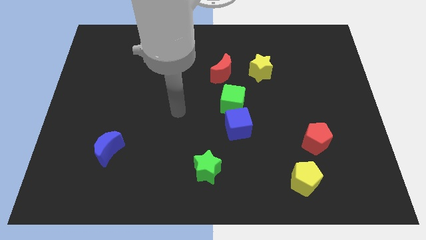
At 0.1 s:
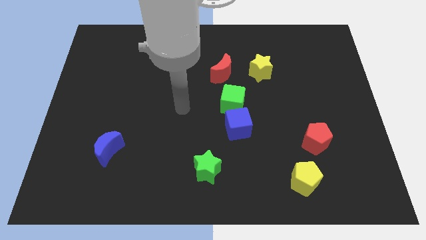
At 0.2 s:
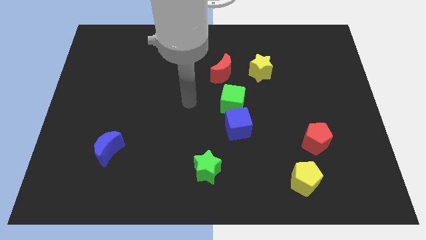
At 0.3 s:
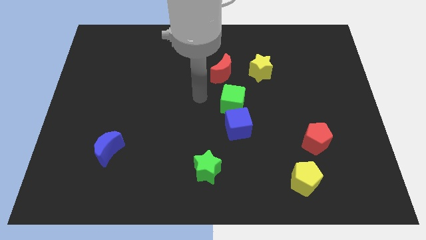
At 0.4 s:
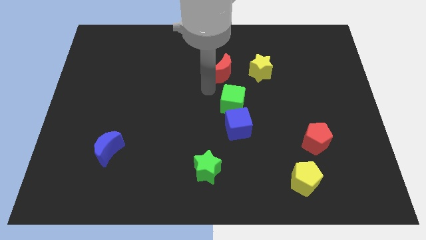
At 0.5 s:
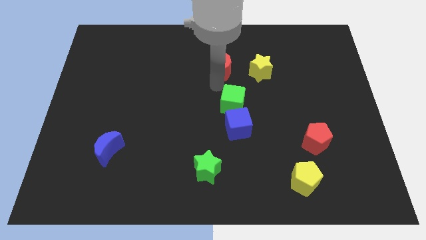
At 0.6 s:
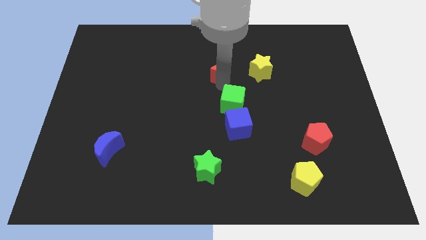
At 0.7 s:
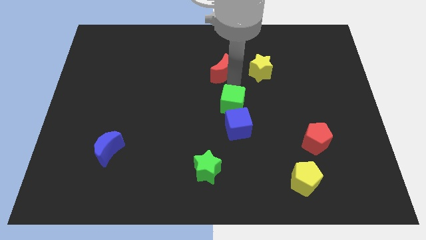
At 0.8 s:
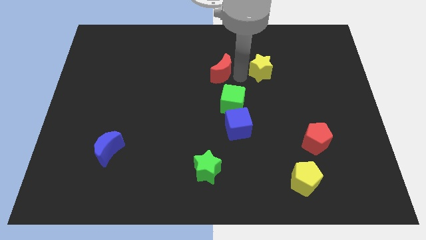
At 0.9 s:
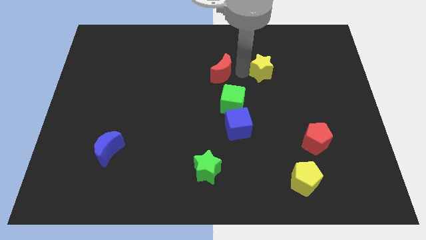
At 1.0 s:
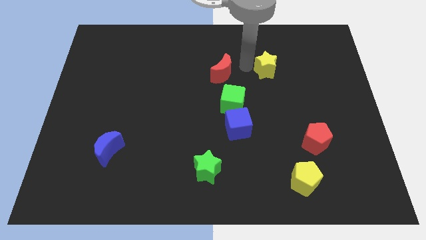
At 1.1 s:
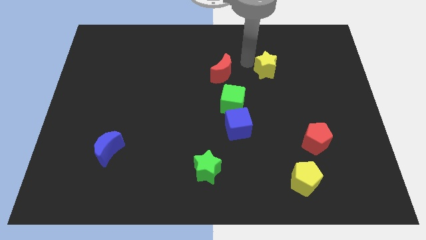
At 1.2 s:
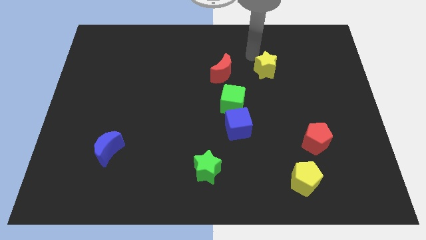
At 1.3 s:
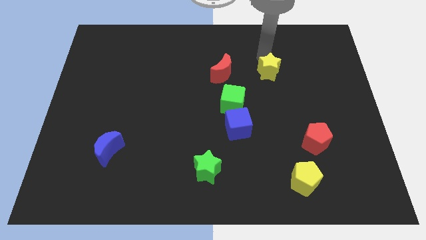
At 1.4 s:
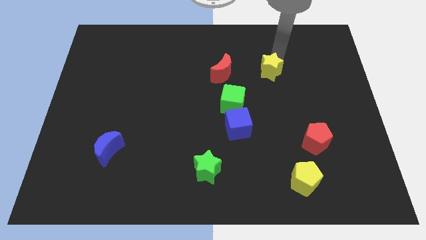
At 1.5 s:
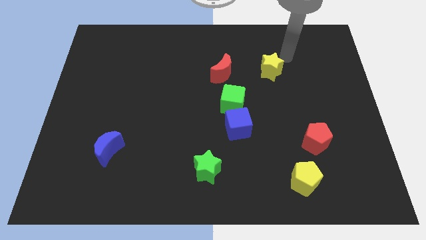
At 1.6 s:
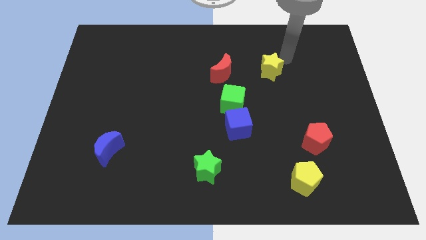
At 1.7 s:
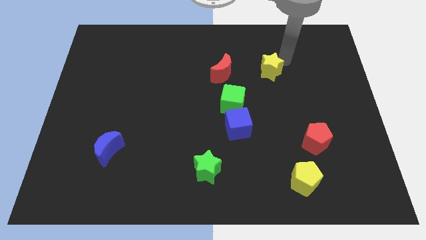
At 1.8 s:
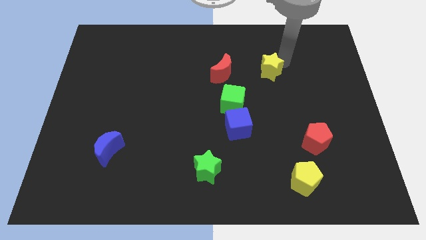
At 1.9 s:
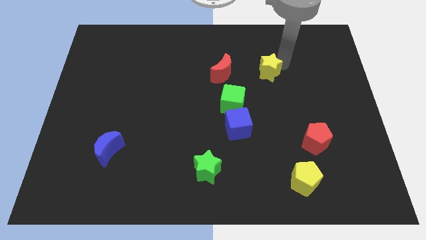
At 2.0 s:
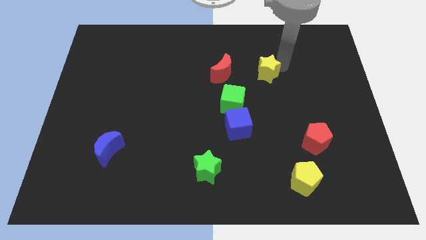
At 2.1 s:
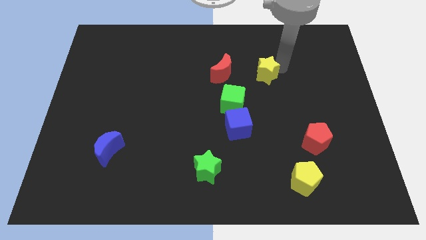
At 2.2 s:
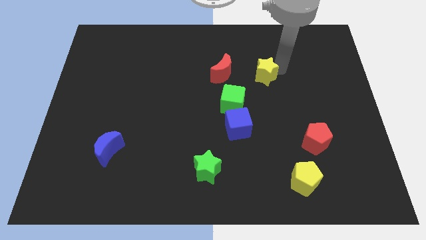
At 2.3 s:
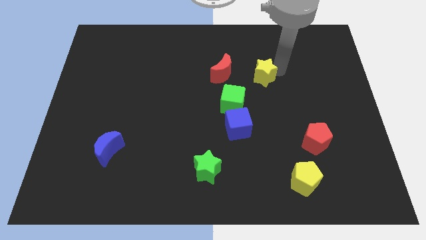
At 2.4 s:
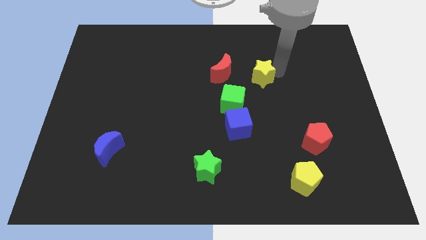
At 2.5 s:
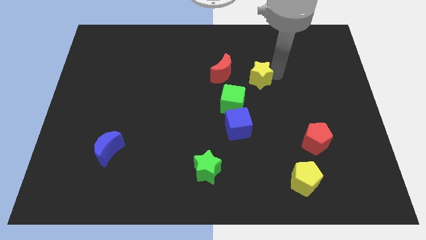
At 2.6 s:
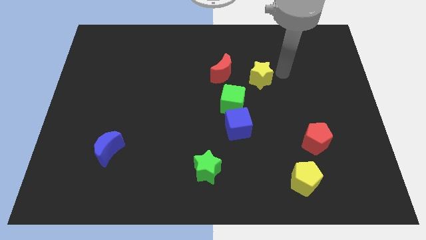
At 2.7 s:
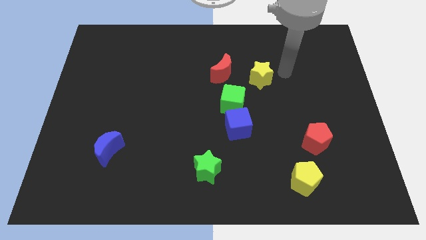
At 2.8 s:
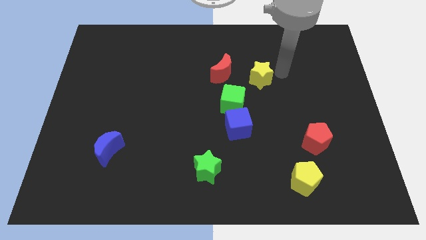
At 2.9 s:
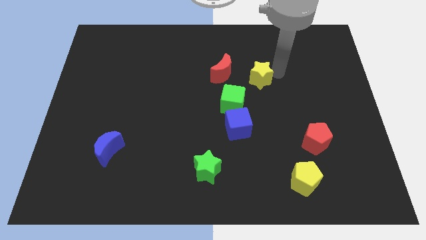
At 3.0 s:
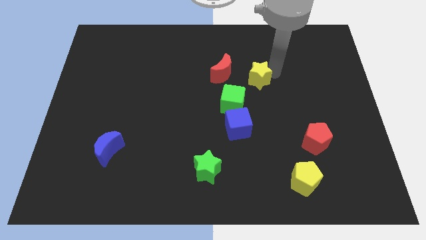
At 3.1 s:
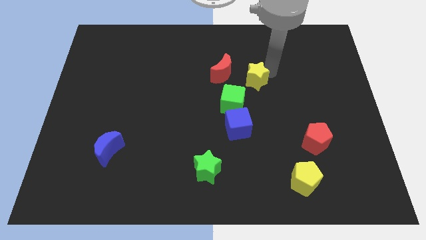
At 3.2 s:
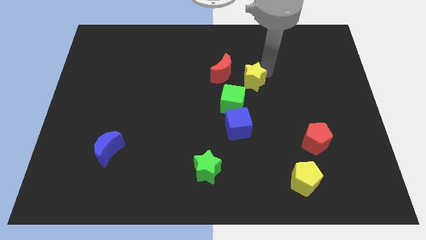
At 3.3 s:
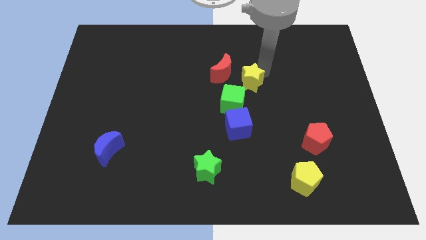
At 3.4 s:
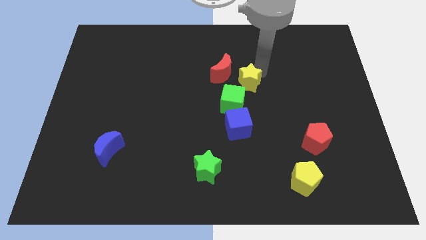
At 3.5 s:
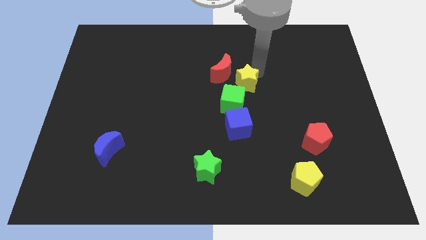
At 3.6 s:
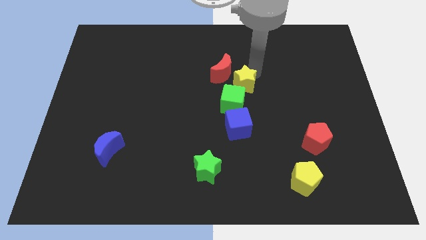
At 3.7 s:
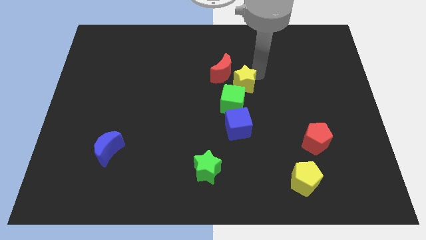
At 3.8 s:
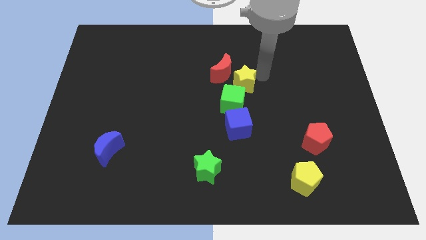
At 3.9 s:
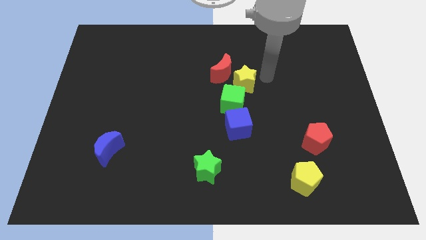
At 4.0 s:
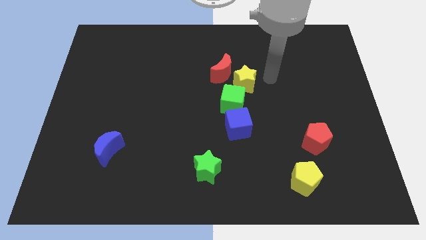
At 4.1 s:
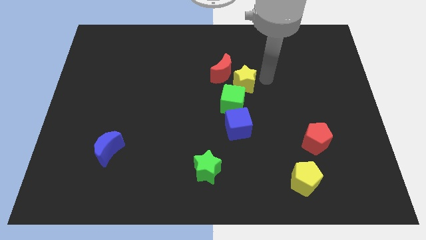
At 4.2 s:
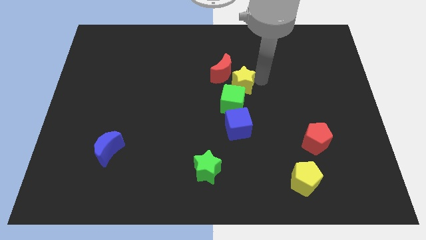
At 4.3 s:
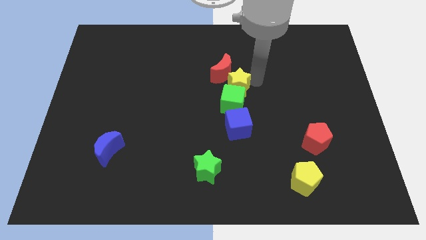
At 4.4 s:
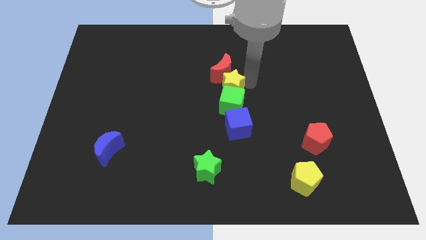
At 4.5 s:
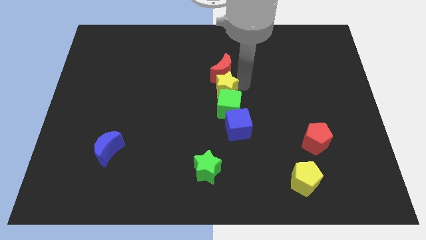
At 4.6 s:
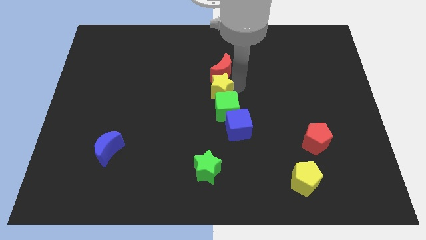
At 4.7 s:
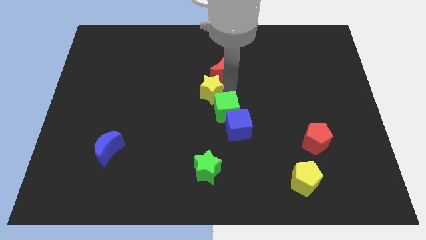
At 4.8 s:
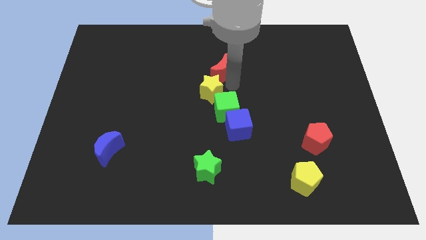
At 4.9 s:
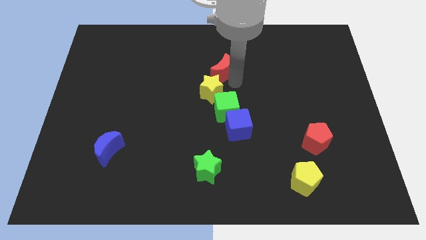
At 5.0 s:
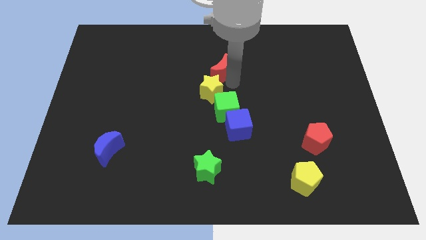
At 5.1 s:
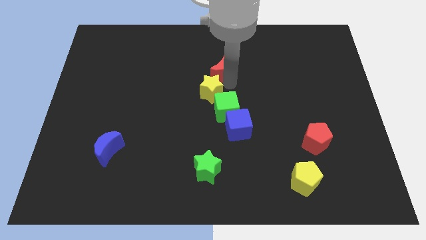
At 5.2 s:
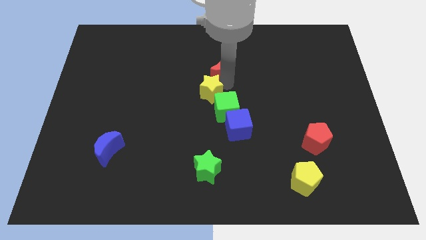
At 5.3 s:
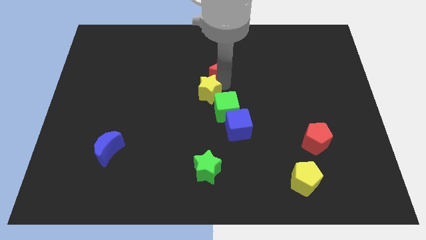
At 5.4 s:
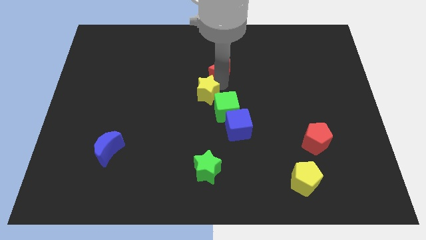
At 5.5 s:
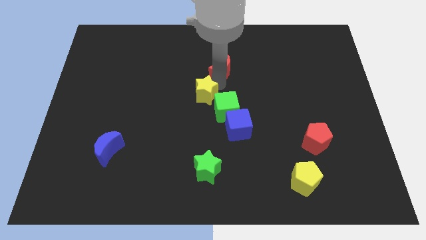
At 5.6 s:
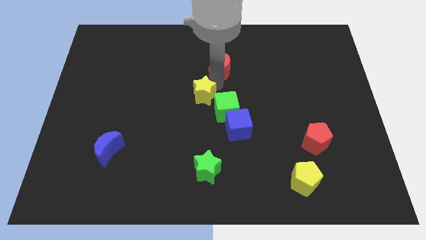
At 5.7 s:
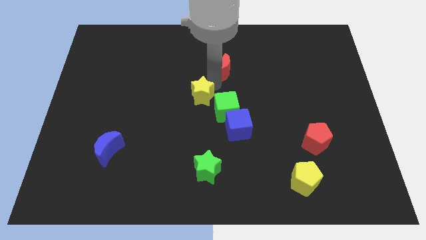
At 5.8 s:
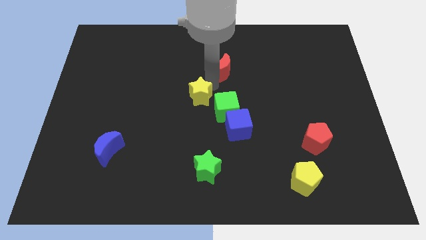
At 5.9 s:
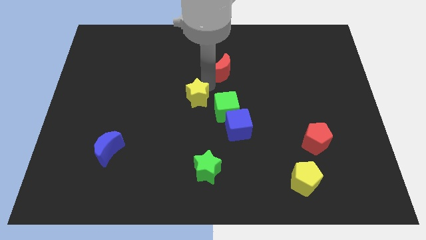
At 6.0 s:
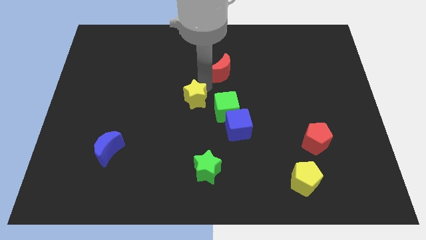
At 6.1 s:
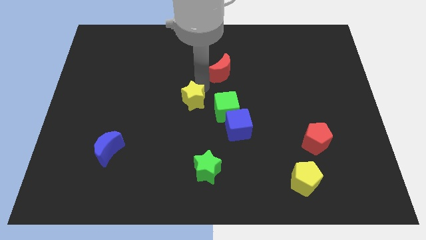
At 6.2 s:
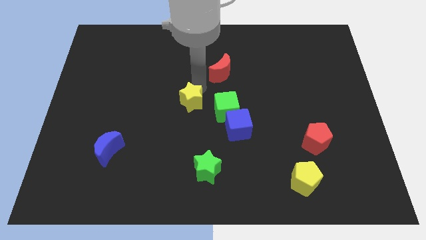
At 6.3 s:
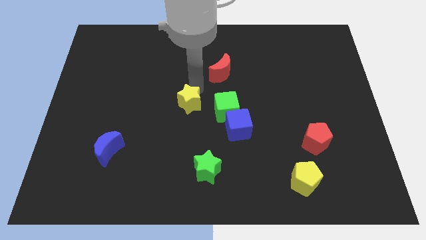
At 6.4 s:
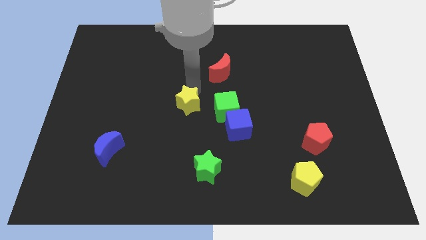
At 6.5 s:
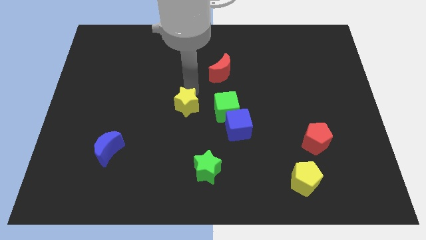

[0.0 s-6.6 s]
push the yellow star down and then to the left

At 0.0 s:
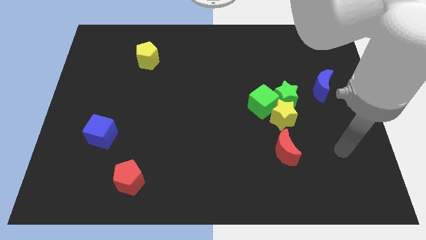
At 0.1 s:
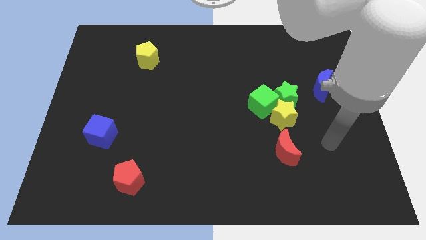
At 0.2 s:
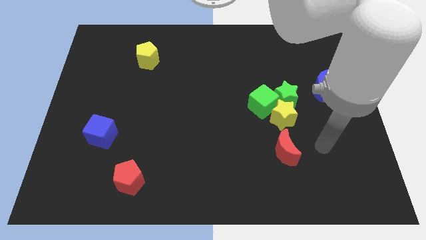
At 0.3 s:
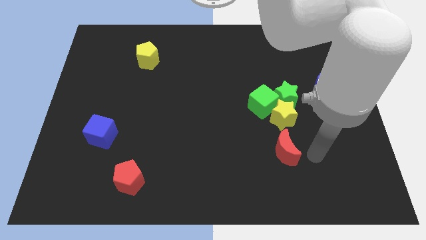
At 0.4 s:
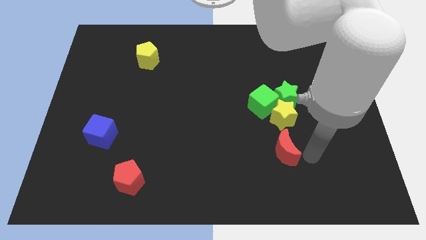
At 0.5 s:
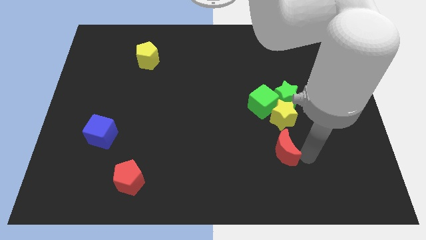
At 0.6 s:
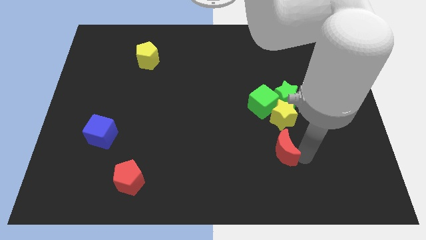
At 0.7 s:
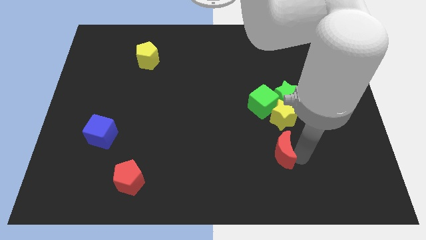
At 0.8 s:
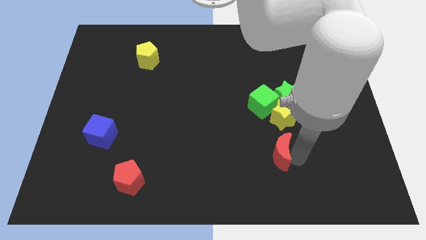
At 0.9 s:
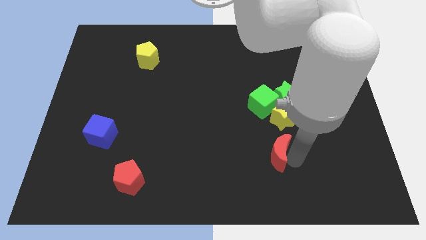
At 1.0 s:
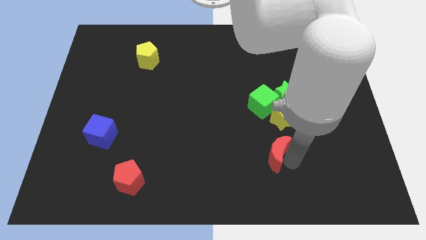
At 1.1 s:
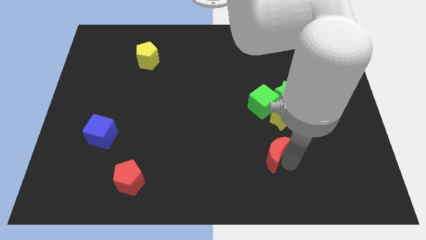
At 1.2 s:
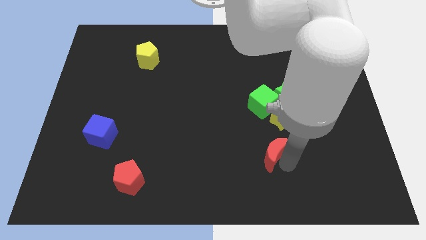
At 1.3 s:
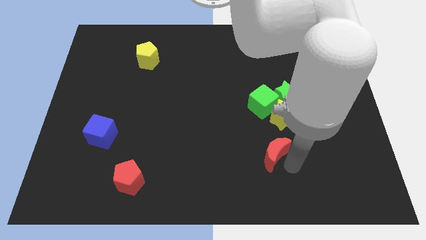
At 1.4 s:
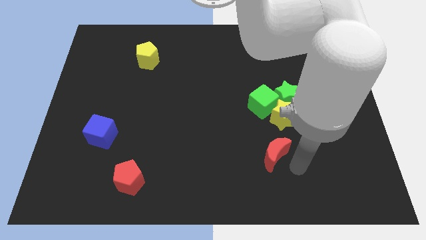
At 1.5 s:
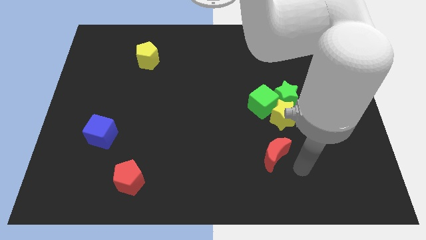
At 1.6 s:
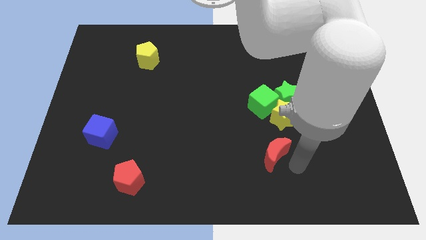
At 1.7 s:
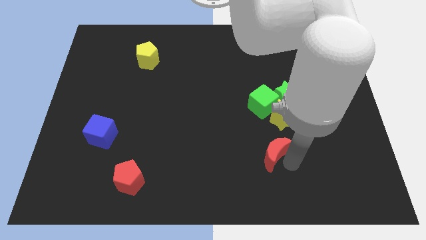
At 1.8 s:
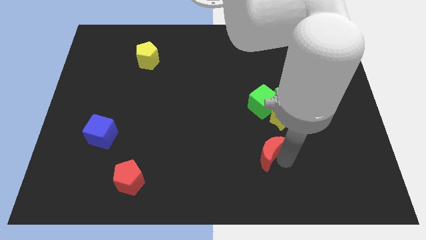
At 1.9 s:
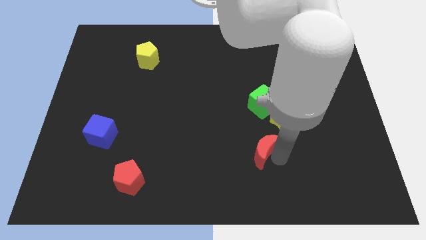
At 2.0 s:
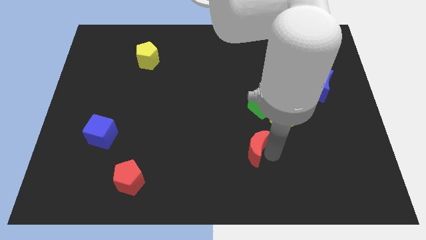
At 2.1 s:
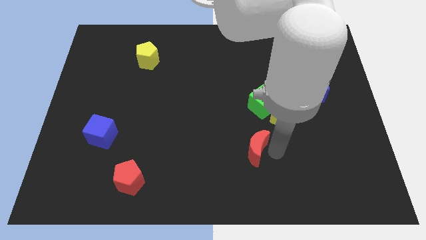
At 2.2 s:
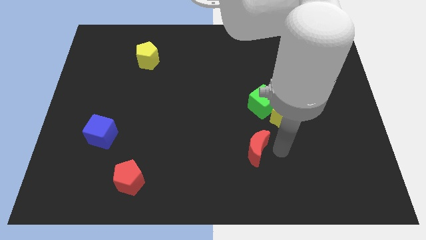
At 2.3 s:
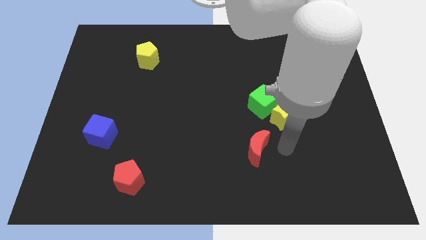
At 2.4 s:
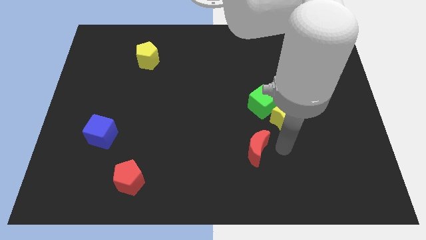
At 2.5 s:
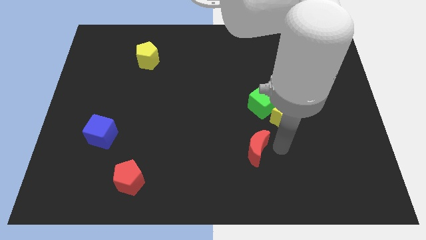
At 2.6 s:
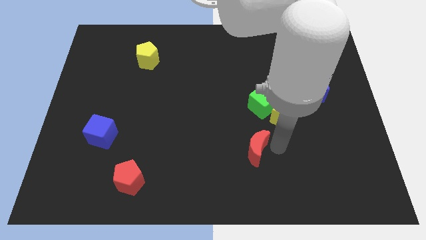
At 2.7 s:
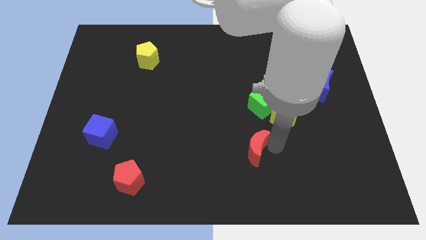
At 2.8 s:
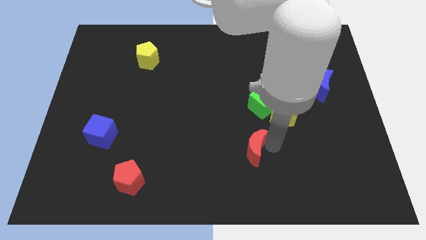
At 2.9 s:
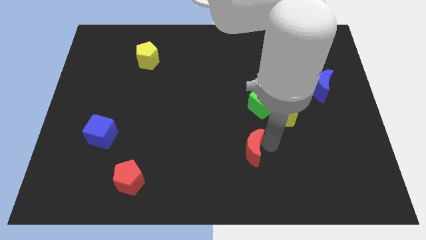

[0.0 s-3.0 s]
push the red moon to the left somewhat
